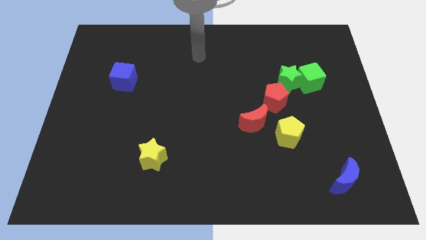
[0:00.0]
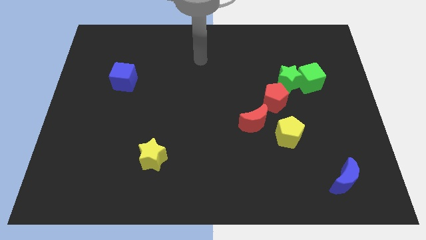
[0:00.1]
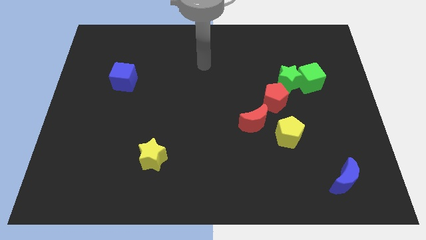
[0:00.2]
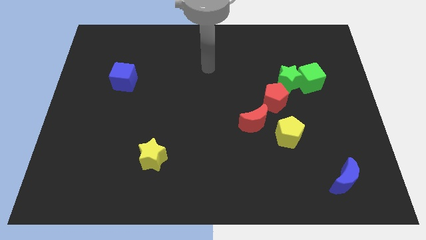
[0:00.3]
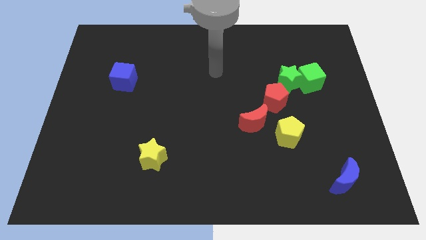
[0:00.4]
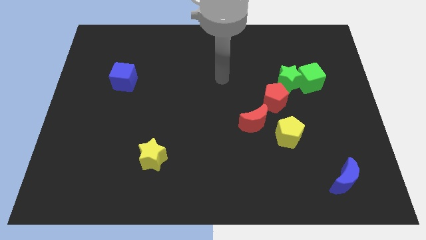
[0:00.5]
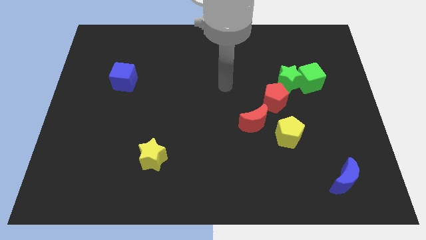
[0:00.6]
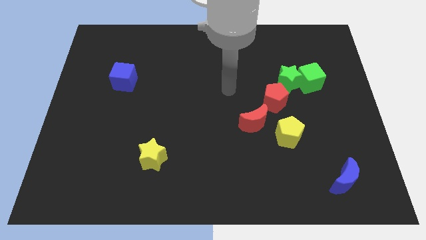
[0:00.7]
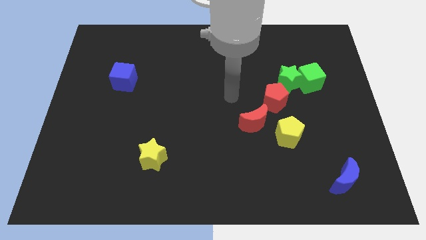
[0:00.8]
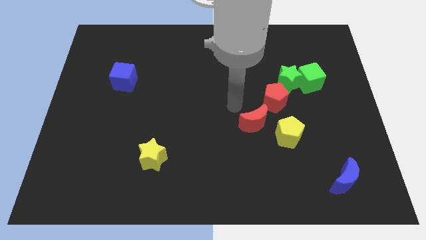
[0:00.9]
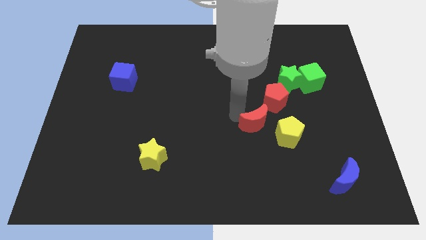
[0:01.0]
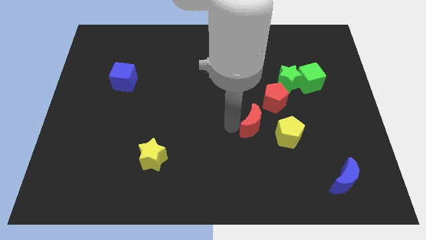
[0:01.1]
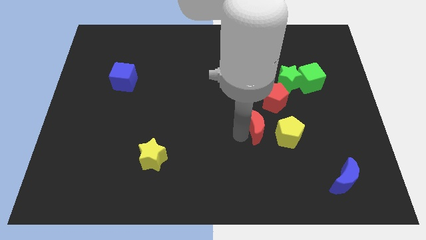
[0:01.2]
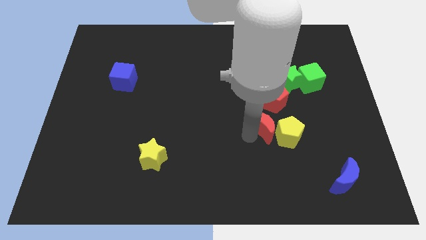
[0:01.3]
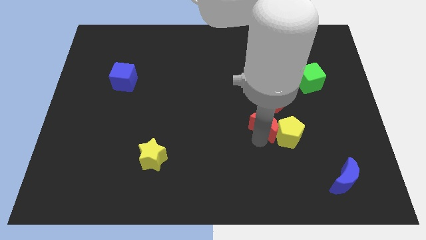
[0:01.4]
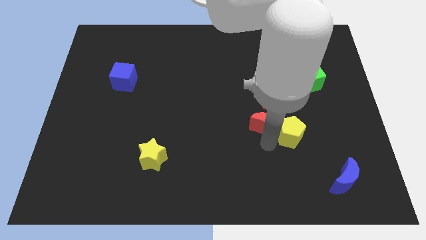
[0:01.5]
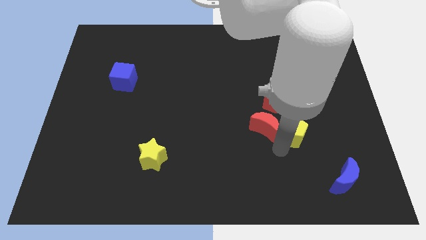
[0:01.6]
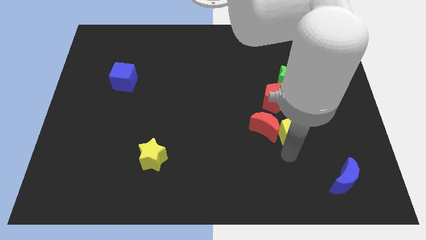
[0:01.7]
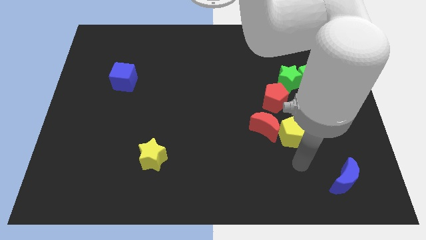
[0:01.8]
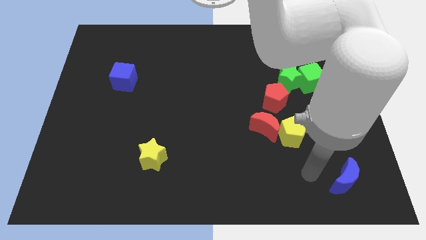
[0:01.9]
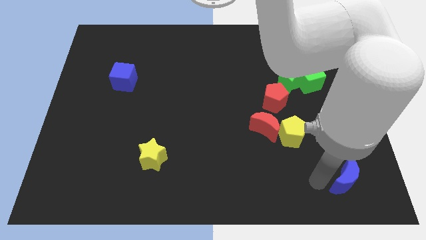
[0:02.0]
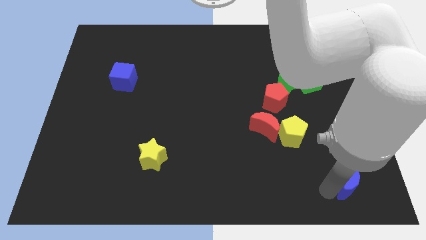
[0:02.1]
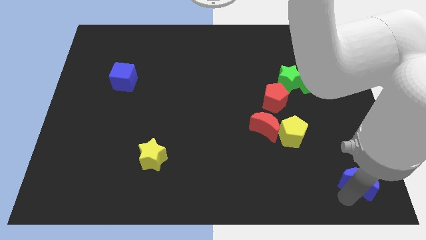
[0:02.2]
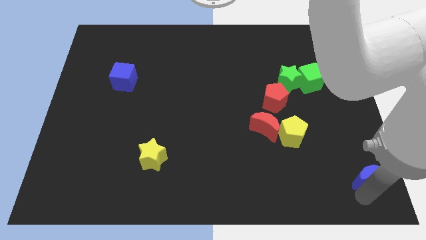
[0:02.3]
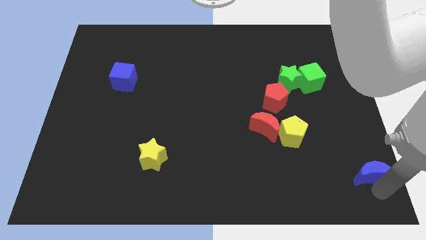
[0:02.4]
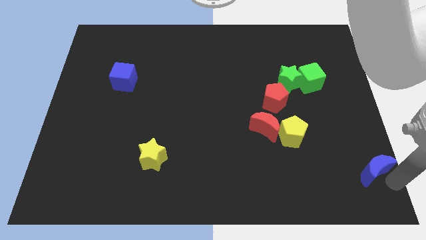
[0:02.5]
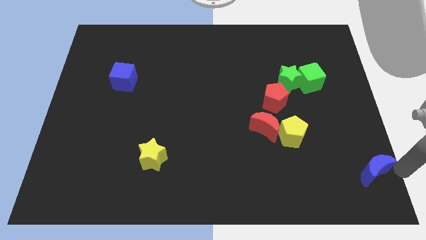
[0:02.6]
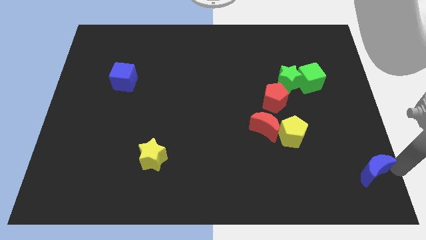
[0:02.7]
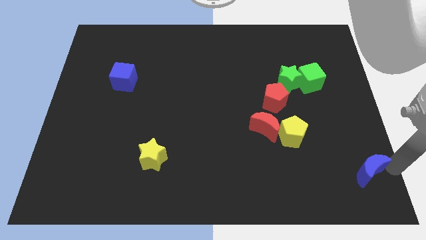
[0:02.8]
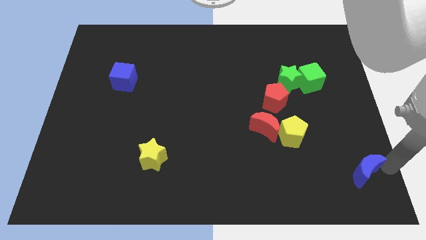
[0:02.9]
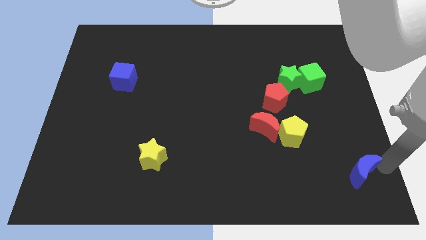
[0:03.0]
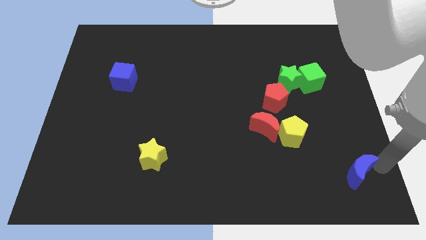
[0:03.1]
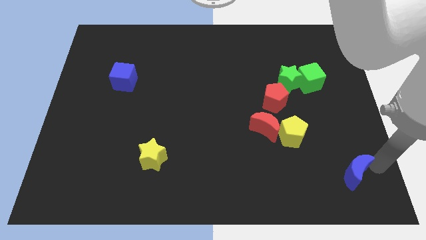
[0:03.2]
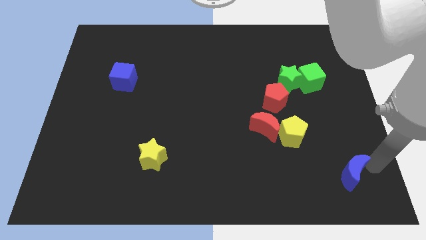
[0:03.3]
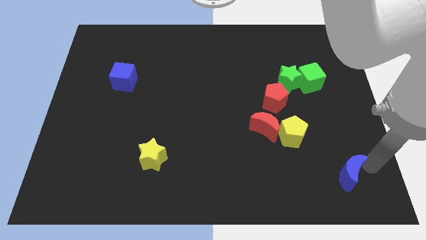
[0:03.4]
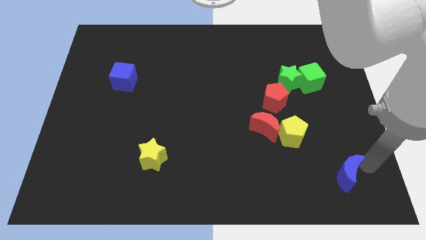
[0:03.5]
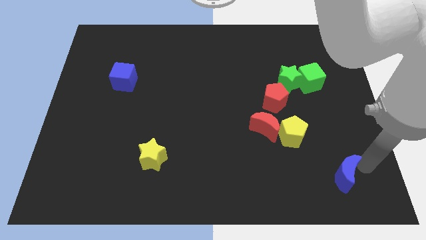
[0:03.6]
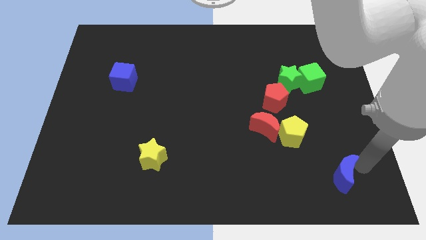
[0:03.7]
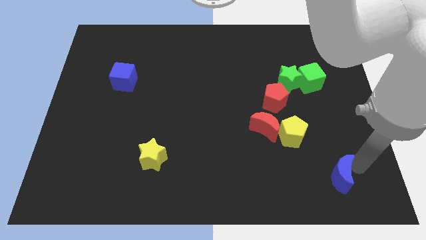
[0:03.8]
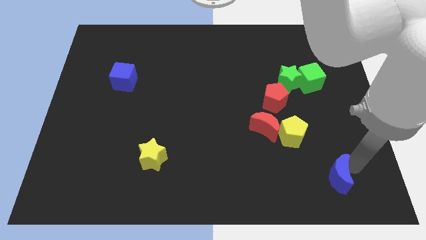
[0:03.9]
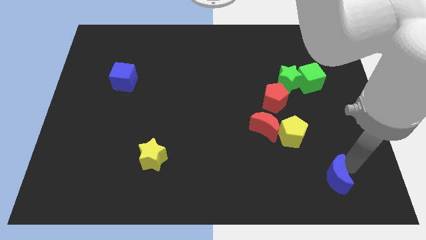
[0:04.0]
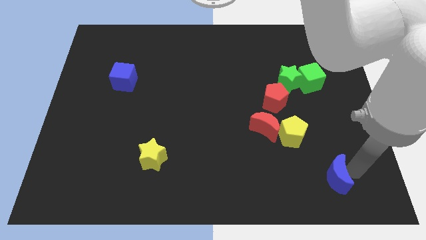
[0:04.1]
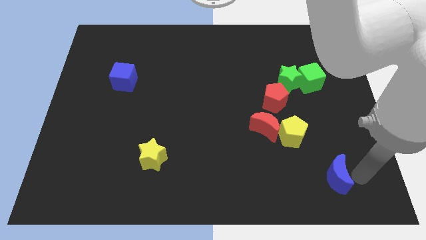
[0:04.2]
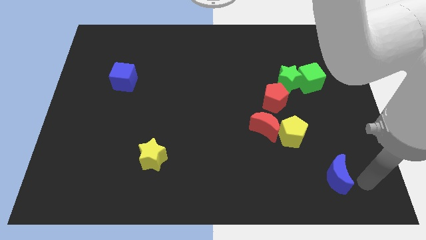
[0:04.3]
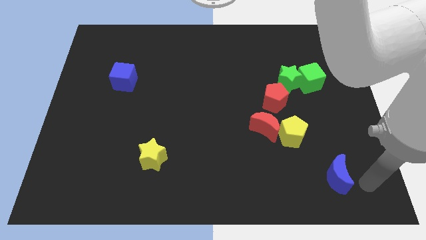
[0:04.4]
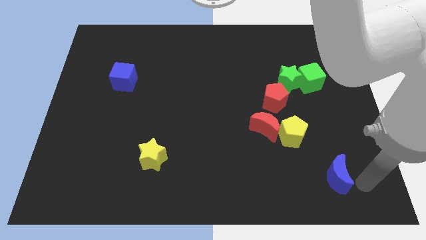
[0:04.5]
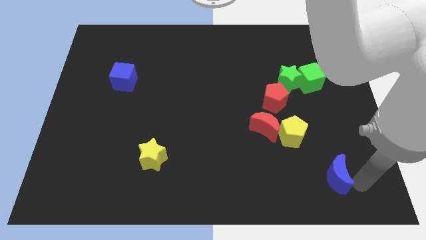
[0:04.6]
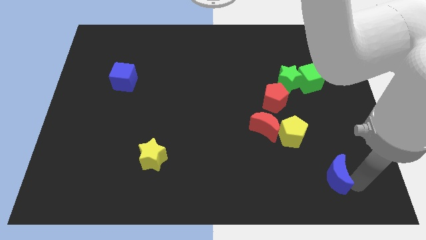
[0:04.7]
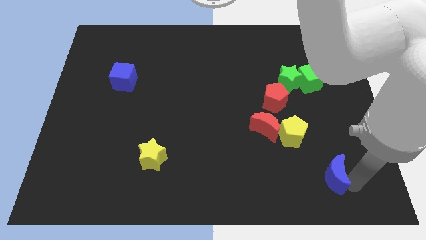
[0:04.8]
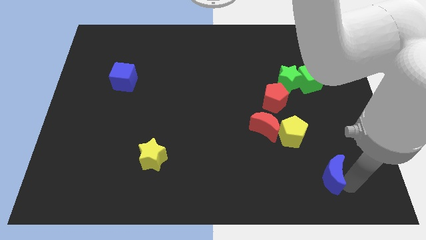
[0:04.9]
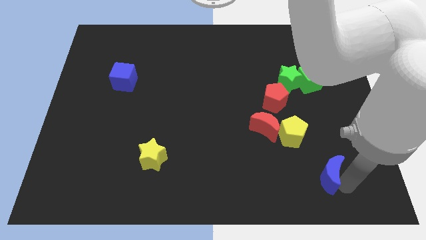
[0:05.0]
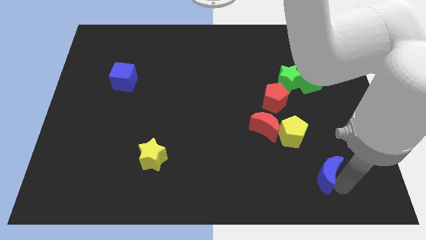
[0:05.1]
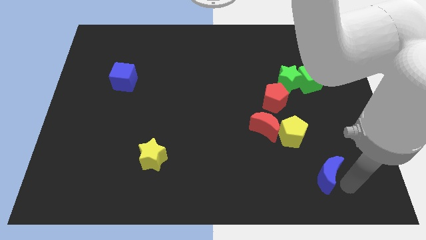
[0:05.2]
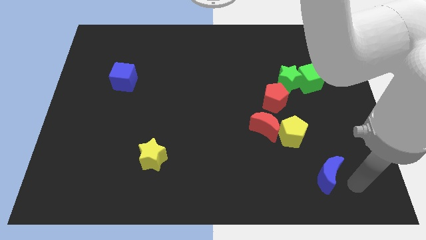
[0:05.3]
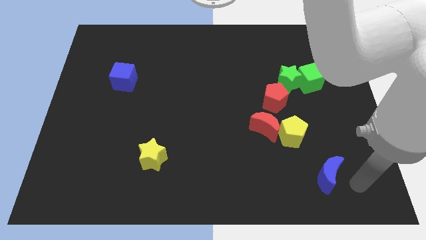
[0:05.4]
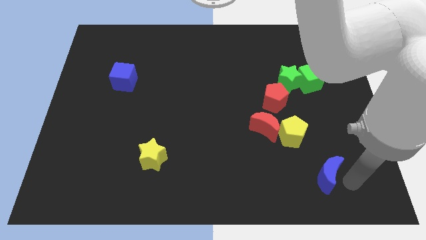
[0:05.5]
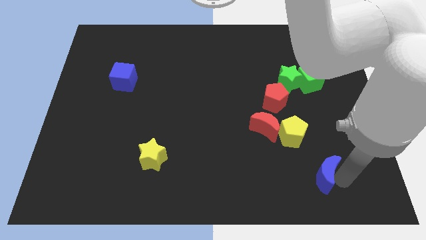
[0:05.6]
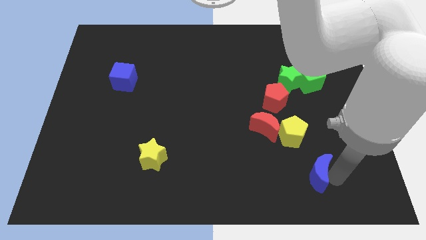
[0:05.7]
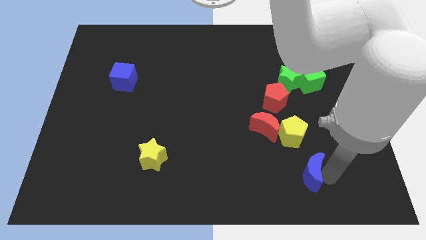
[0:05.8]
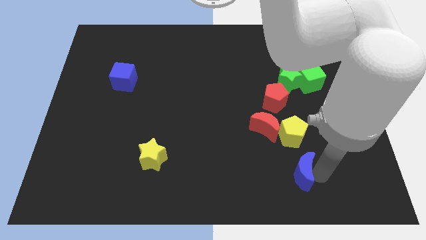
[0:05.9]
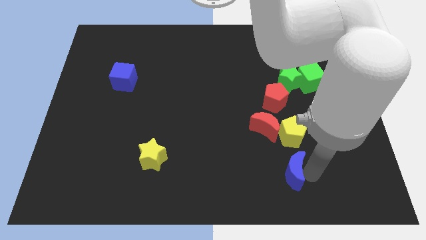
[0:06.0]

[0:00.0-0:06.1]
slide the blue moon to the bottom of the red moon

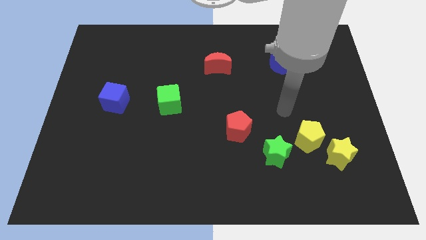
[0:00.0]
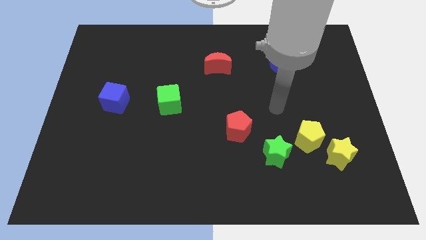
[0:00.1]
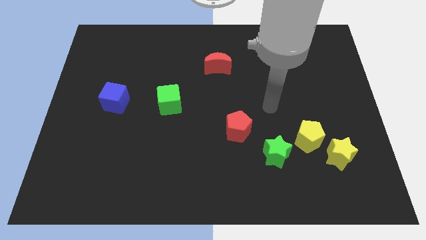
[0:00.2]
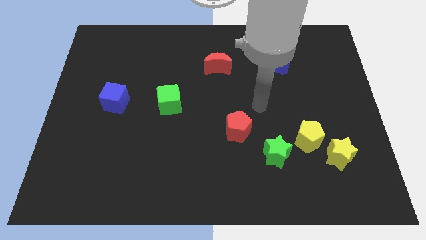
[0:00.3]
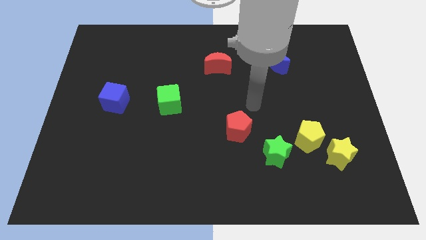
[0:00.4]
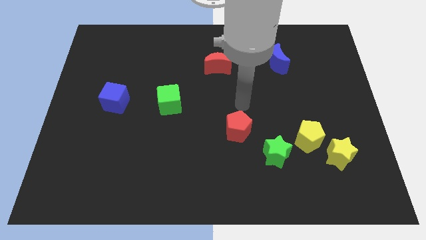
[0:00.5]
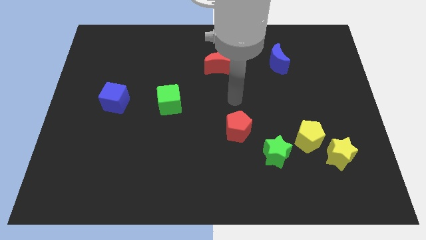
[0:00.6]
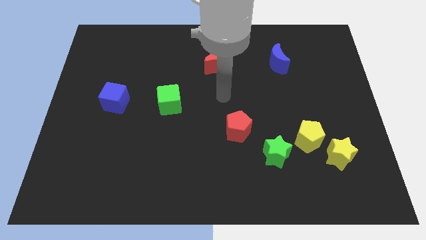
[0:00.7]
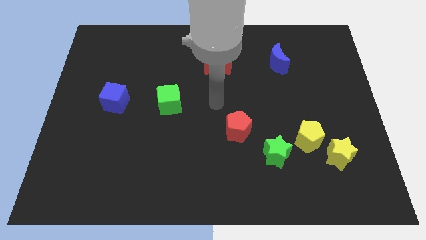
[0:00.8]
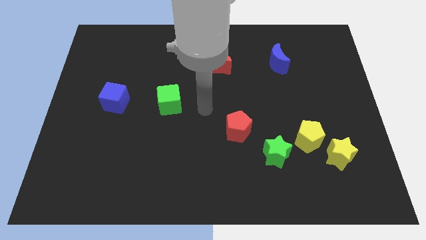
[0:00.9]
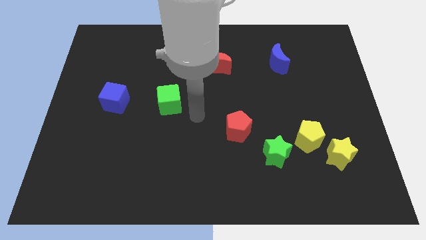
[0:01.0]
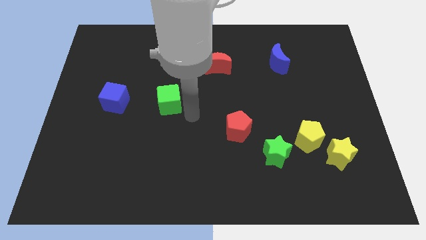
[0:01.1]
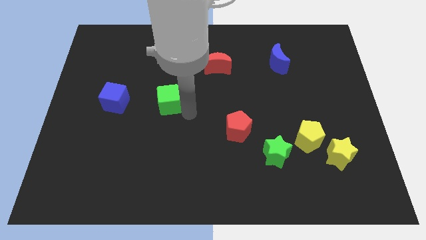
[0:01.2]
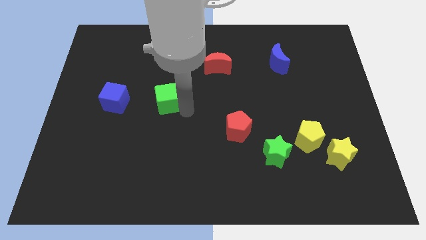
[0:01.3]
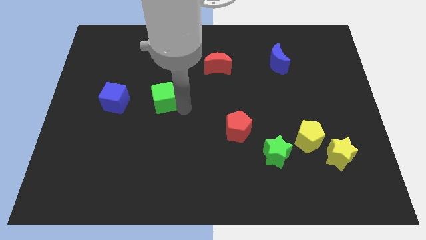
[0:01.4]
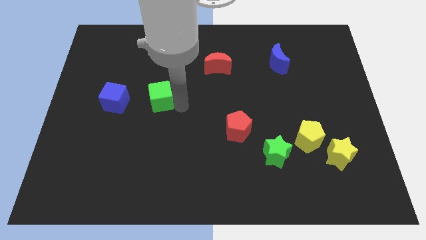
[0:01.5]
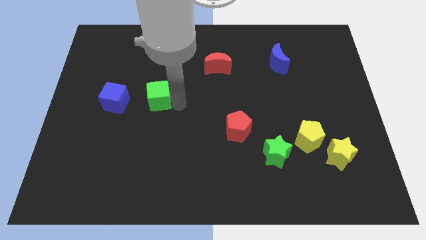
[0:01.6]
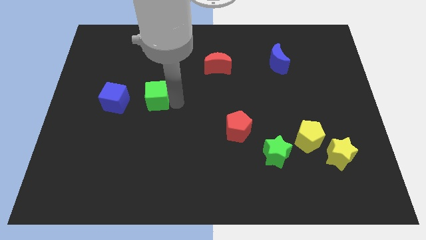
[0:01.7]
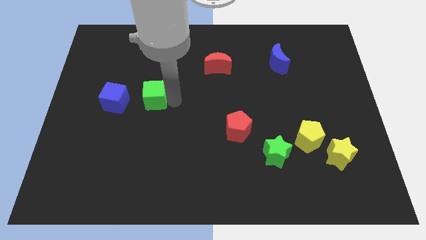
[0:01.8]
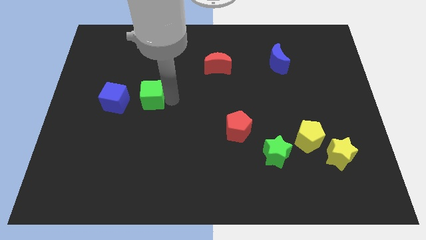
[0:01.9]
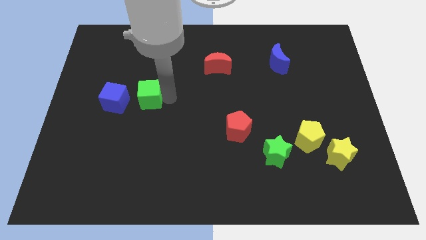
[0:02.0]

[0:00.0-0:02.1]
slide the green cube to the top right of the blue cube
